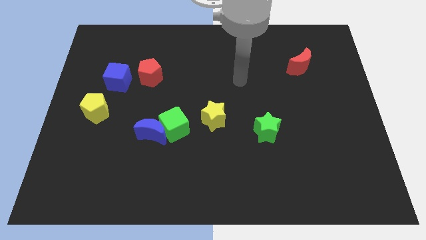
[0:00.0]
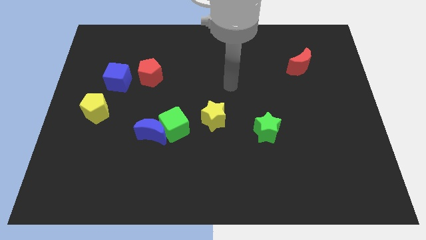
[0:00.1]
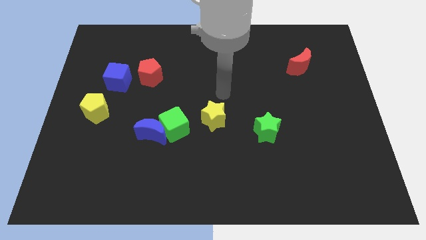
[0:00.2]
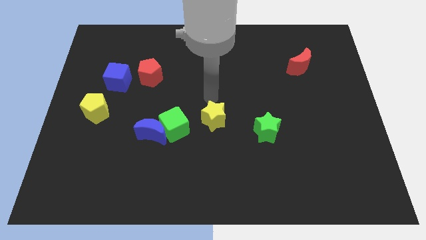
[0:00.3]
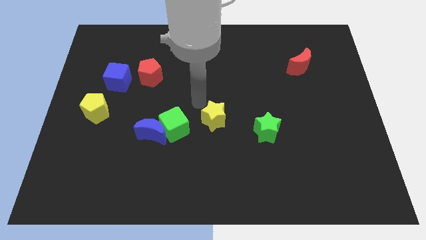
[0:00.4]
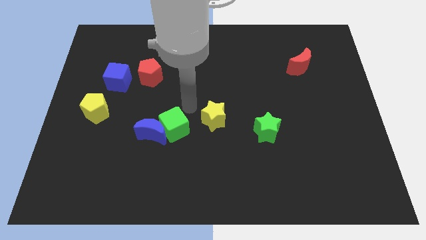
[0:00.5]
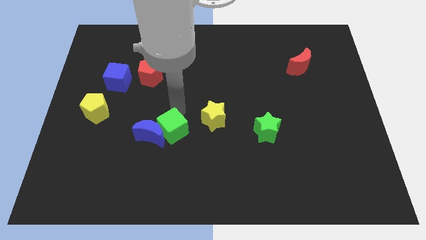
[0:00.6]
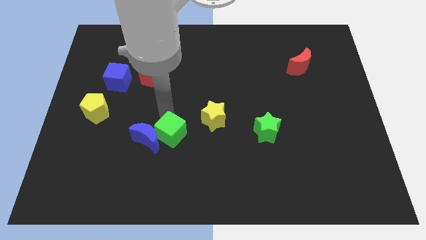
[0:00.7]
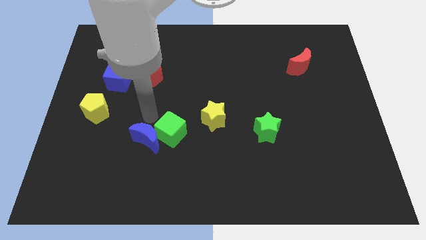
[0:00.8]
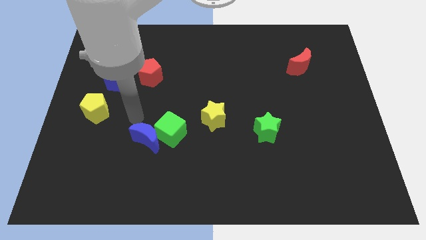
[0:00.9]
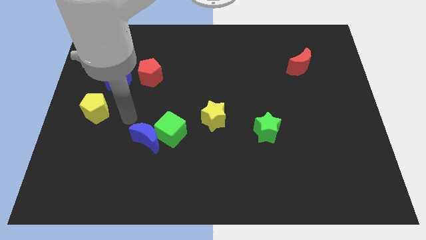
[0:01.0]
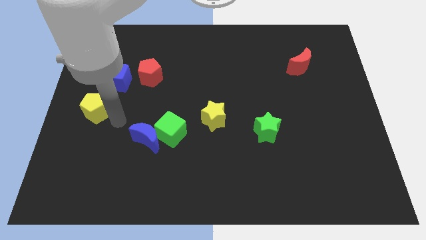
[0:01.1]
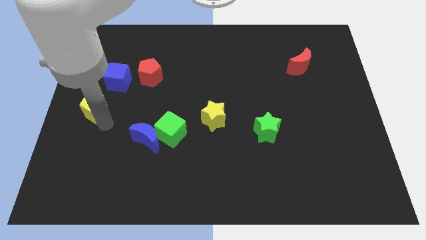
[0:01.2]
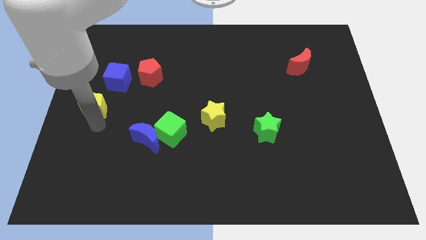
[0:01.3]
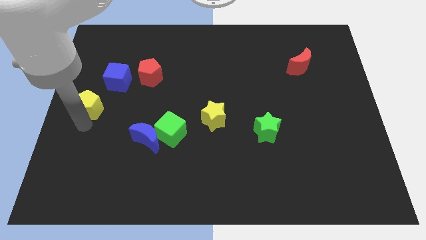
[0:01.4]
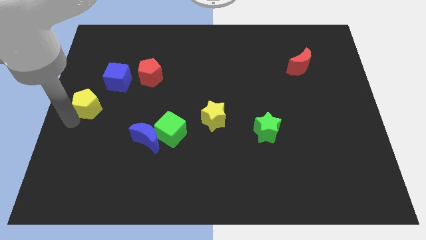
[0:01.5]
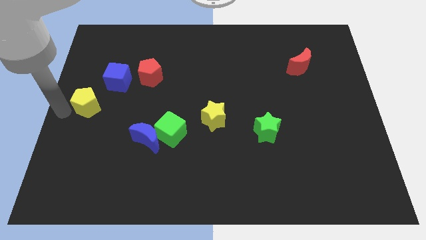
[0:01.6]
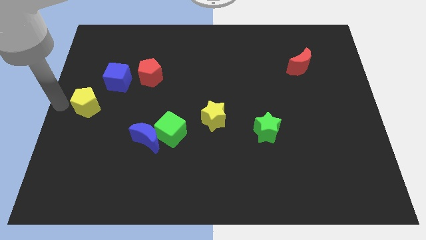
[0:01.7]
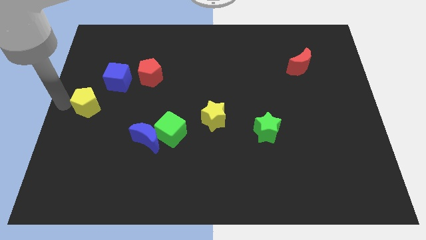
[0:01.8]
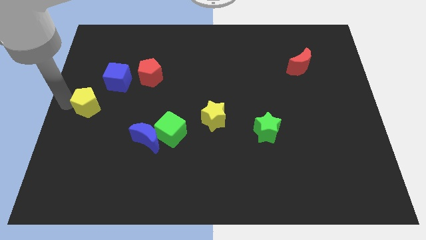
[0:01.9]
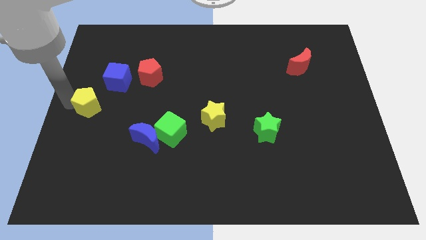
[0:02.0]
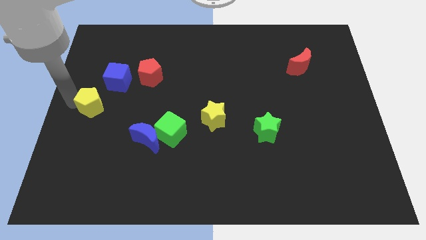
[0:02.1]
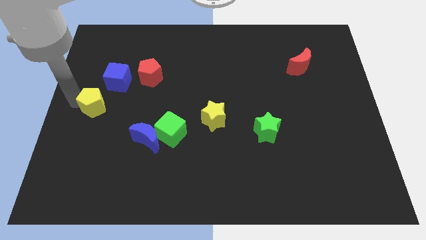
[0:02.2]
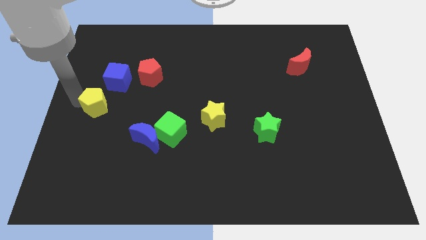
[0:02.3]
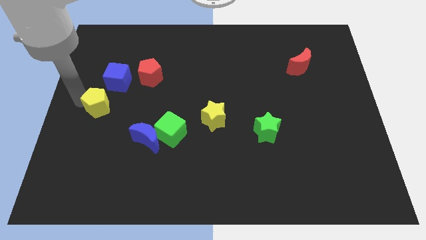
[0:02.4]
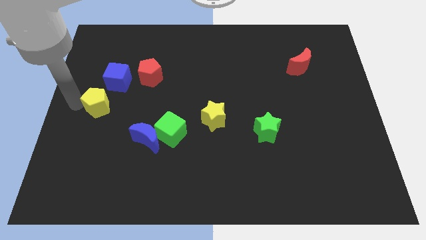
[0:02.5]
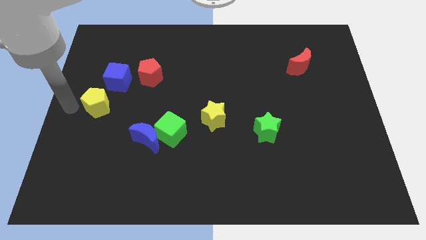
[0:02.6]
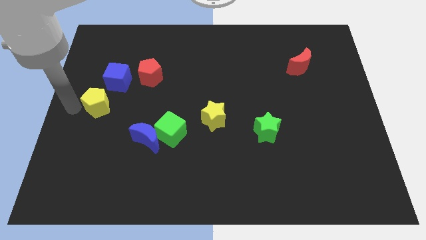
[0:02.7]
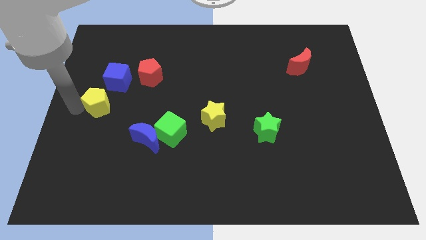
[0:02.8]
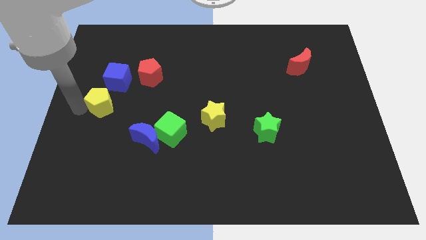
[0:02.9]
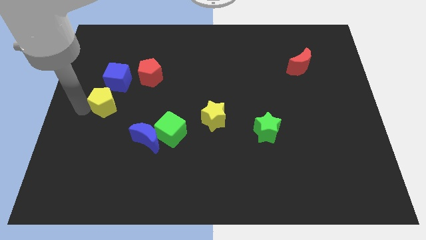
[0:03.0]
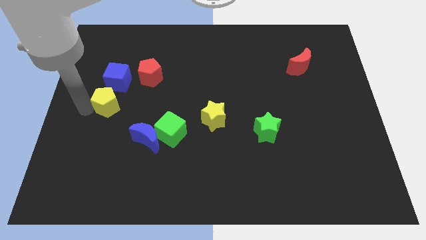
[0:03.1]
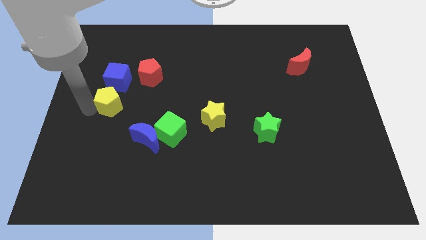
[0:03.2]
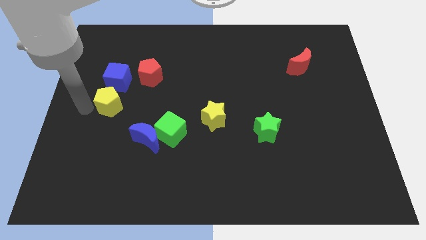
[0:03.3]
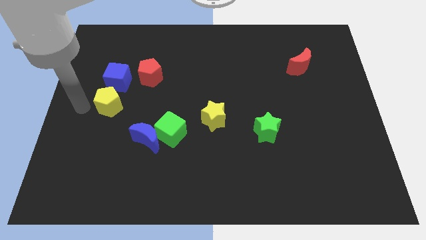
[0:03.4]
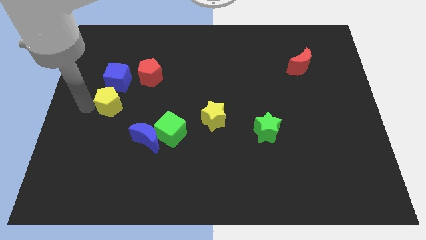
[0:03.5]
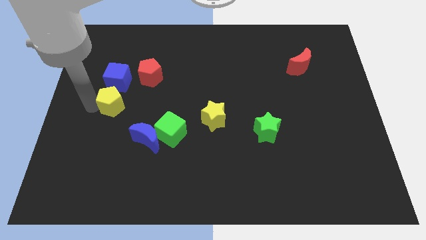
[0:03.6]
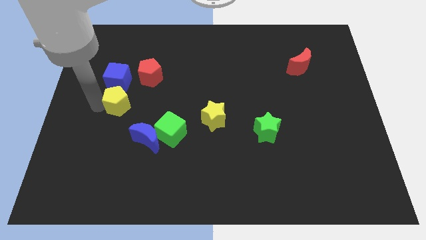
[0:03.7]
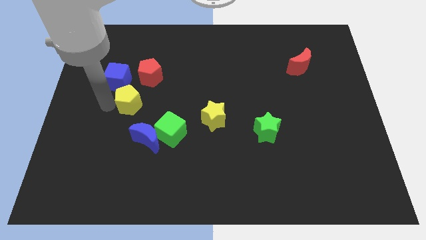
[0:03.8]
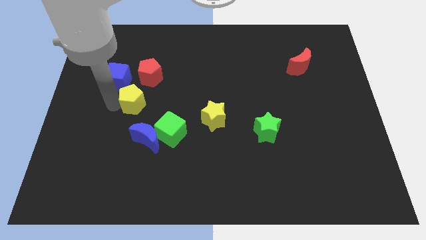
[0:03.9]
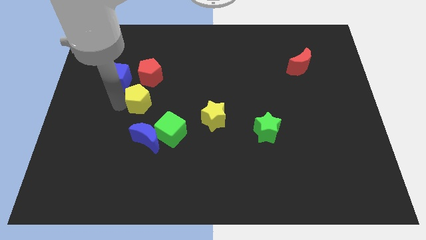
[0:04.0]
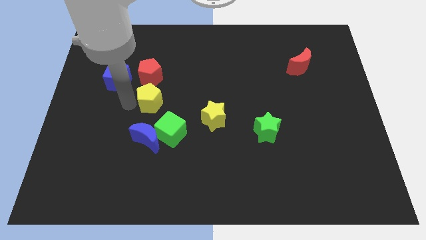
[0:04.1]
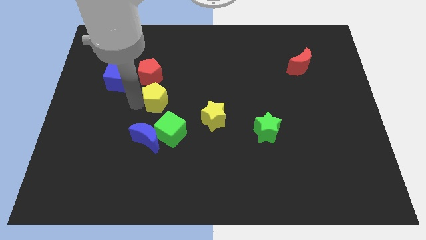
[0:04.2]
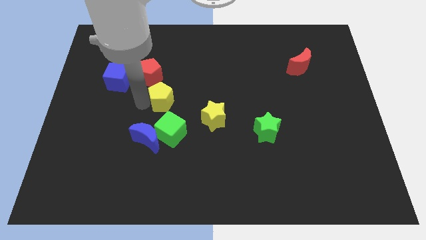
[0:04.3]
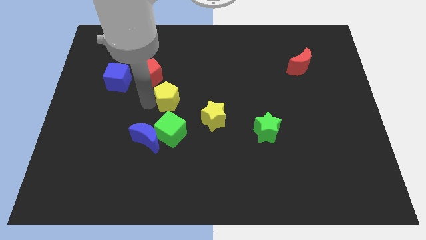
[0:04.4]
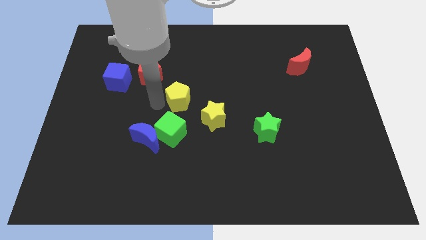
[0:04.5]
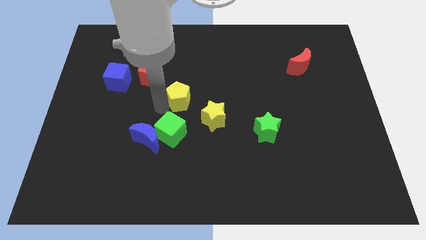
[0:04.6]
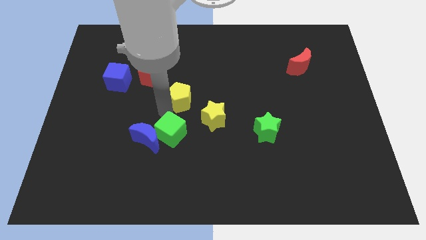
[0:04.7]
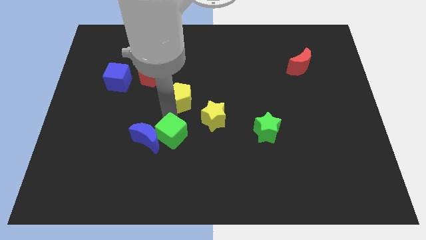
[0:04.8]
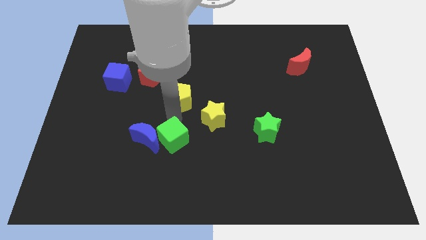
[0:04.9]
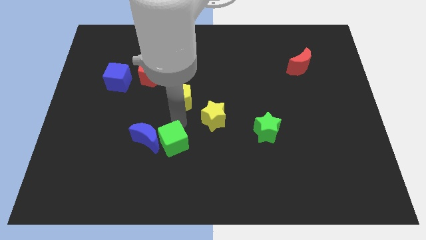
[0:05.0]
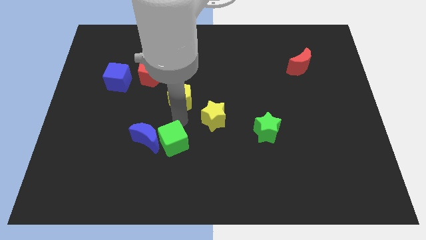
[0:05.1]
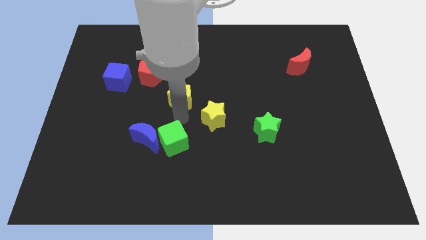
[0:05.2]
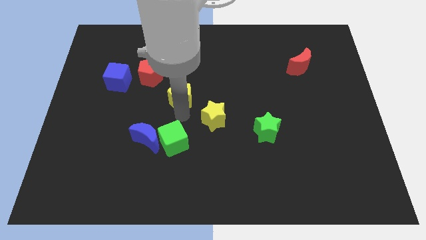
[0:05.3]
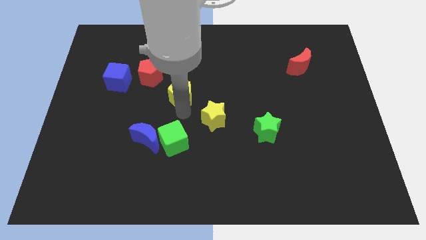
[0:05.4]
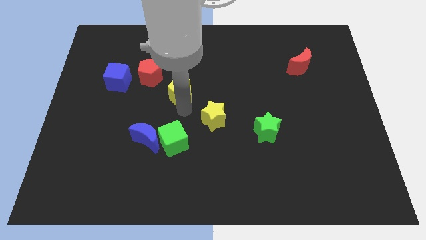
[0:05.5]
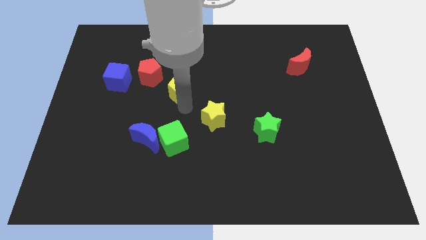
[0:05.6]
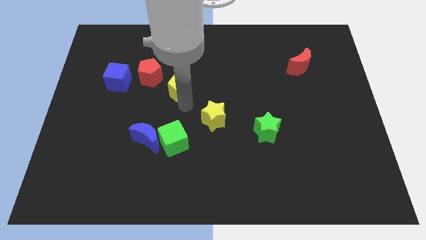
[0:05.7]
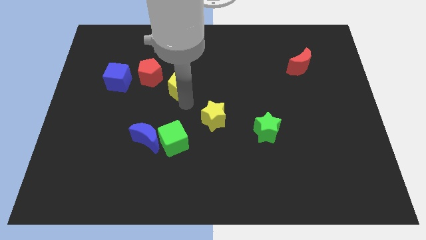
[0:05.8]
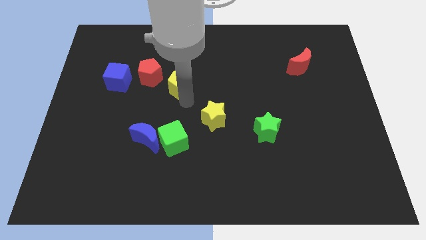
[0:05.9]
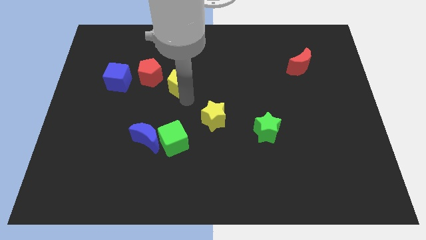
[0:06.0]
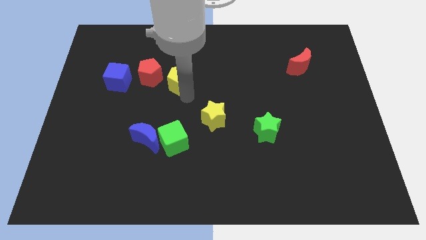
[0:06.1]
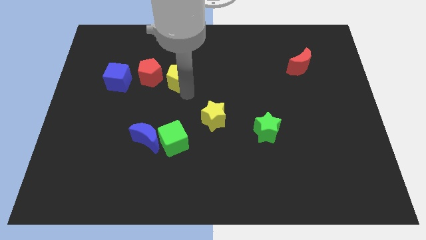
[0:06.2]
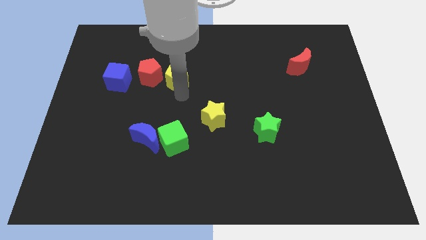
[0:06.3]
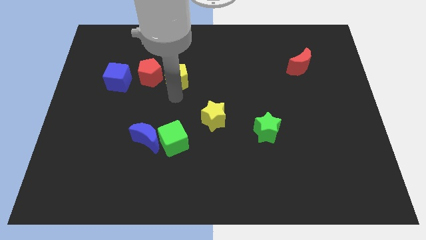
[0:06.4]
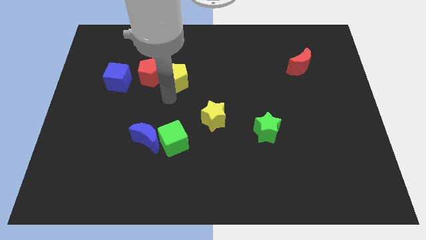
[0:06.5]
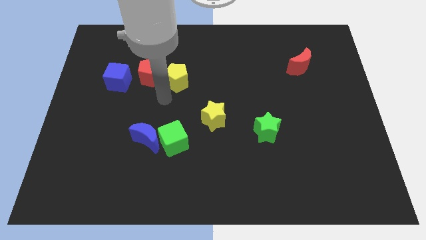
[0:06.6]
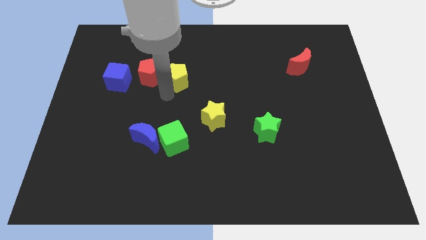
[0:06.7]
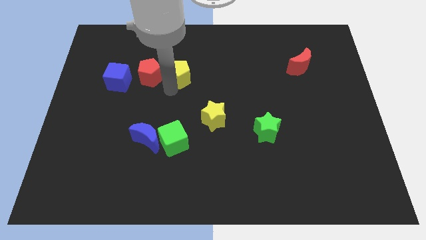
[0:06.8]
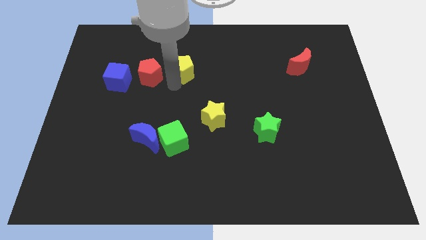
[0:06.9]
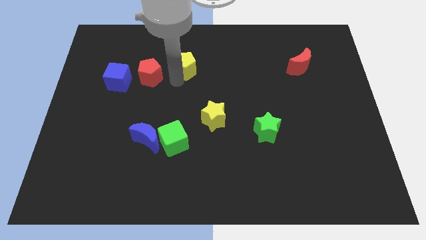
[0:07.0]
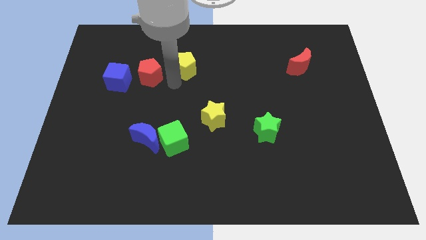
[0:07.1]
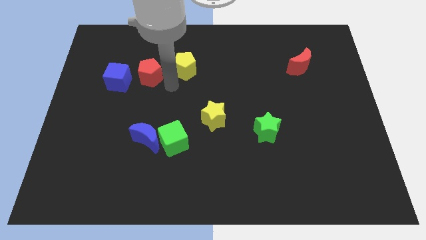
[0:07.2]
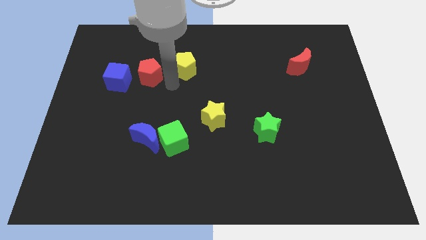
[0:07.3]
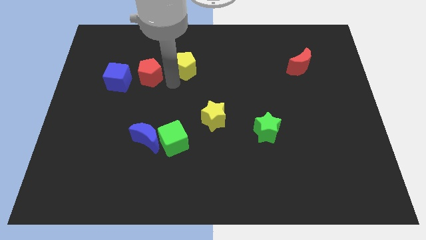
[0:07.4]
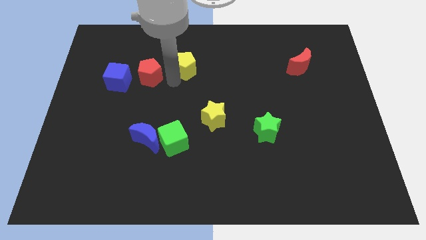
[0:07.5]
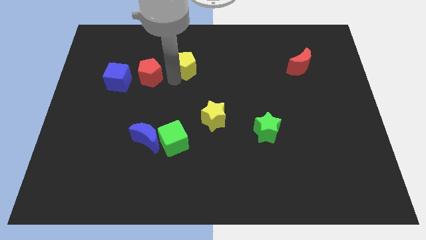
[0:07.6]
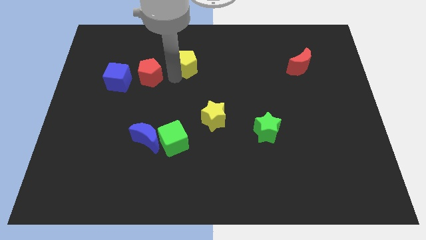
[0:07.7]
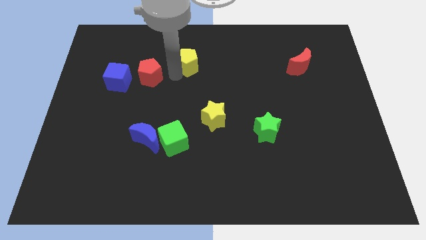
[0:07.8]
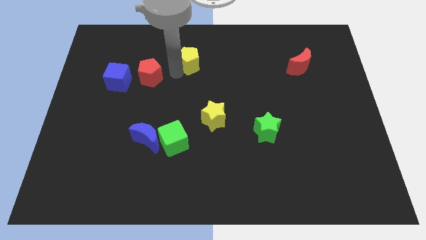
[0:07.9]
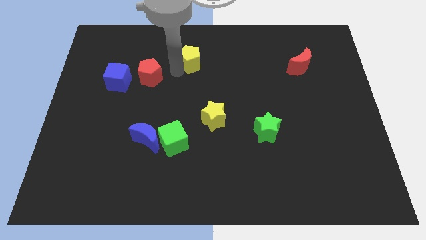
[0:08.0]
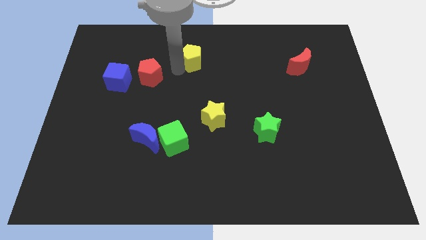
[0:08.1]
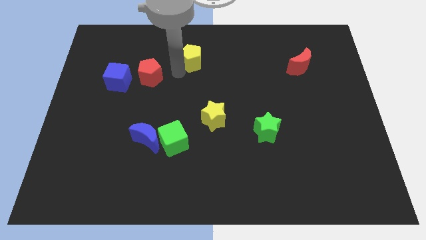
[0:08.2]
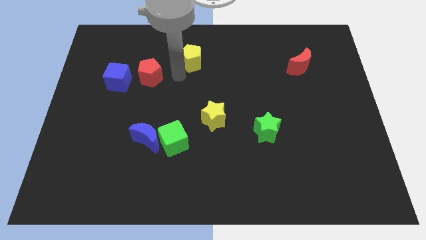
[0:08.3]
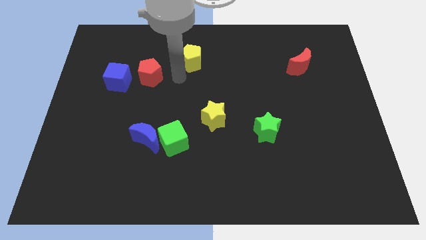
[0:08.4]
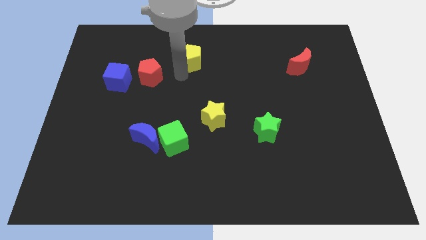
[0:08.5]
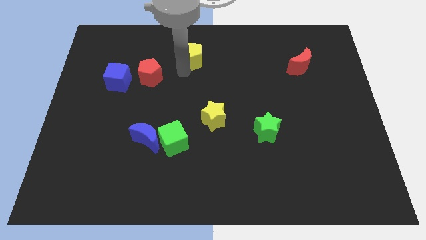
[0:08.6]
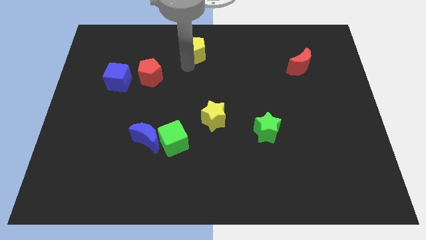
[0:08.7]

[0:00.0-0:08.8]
move the yellow pentagon to the towards your base
